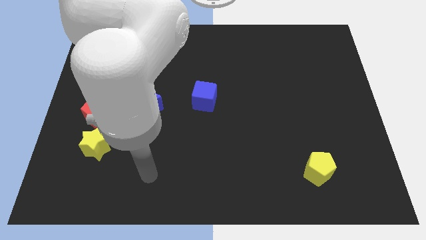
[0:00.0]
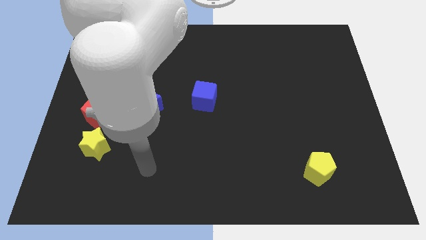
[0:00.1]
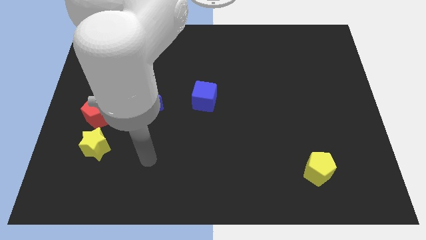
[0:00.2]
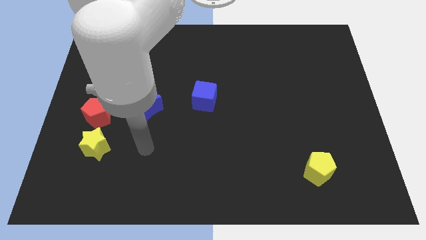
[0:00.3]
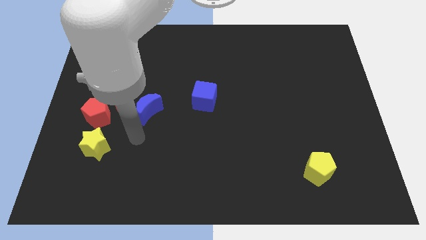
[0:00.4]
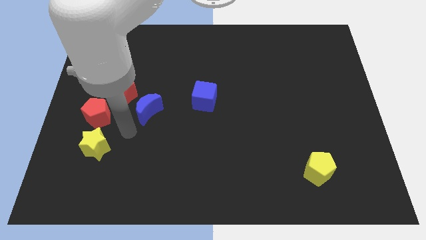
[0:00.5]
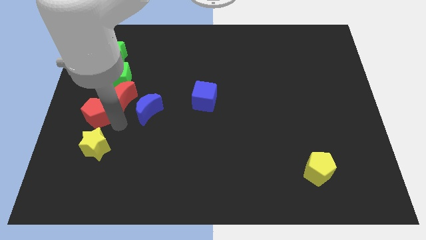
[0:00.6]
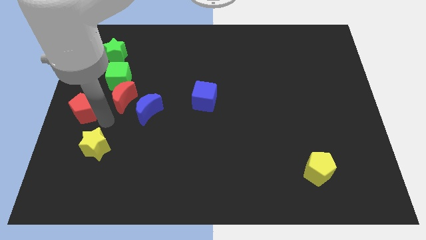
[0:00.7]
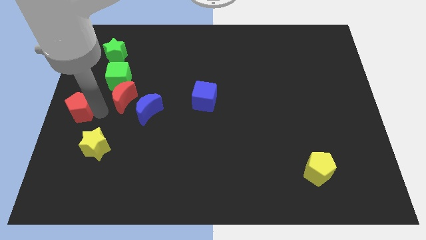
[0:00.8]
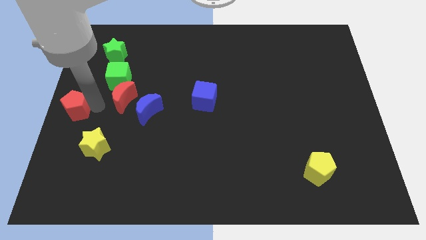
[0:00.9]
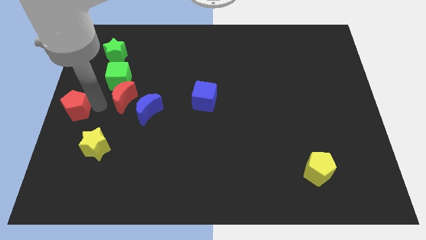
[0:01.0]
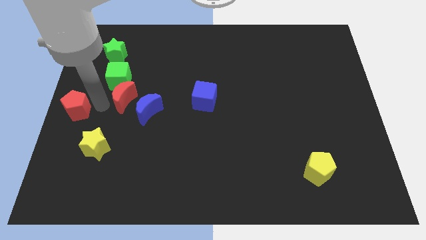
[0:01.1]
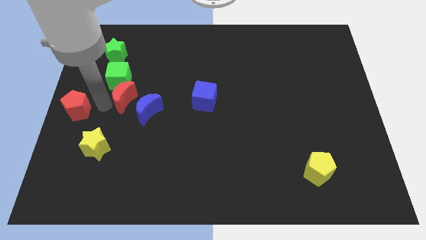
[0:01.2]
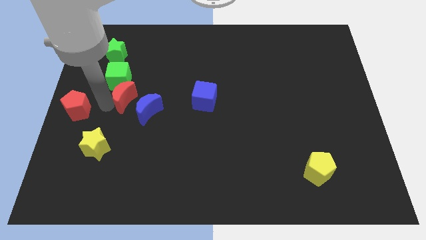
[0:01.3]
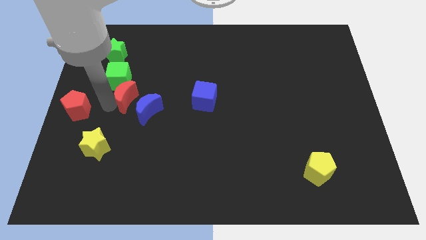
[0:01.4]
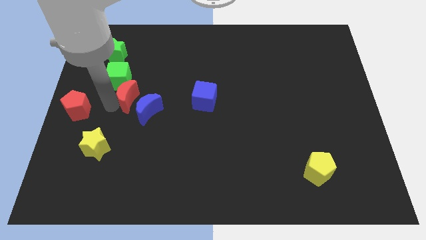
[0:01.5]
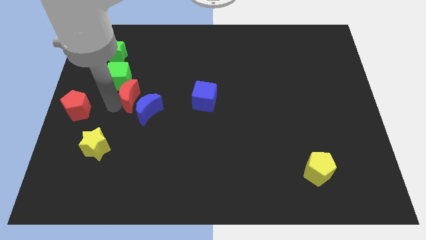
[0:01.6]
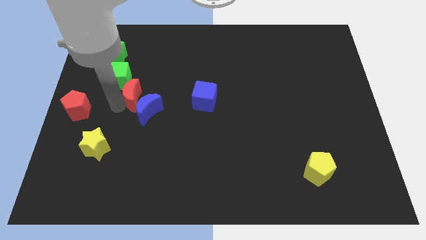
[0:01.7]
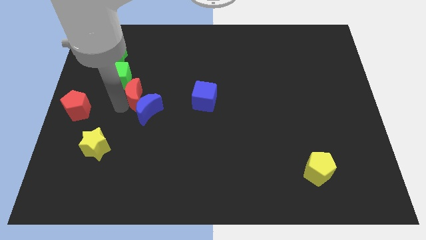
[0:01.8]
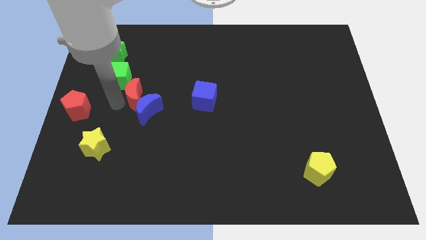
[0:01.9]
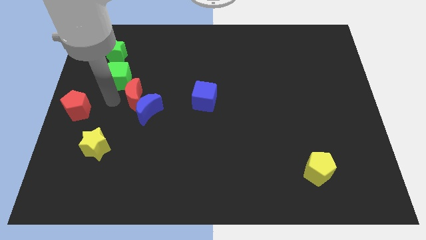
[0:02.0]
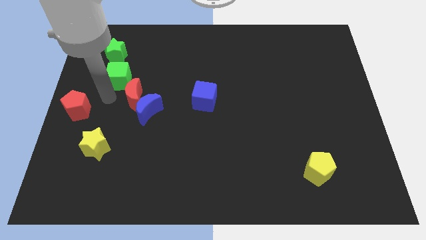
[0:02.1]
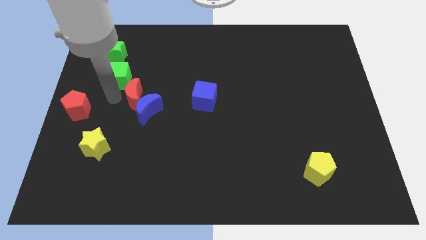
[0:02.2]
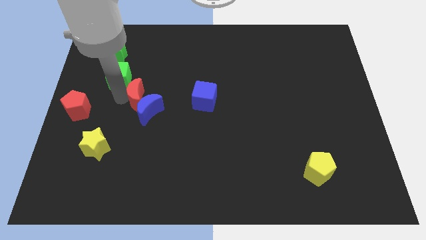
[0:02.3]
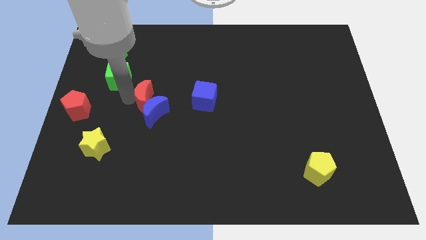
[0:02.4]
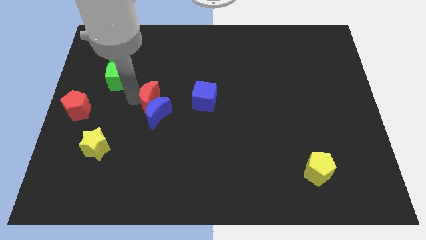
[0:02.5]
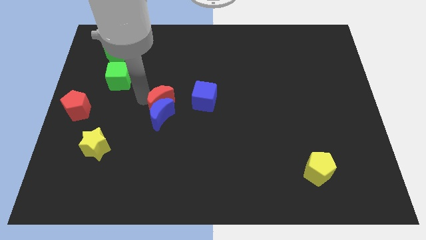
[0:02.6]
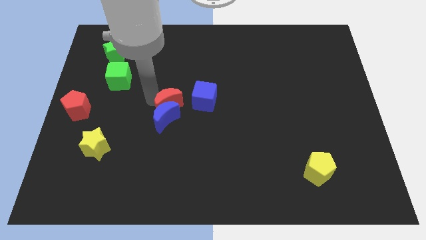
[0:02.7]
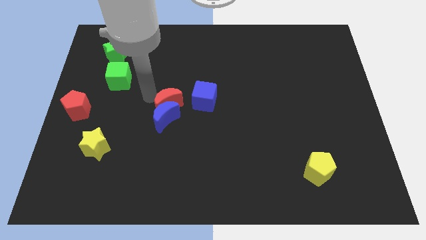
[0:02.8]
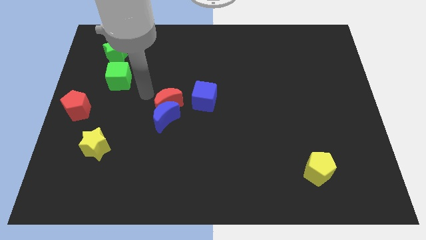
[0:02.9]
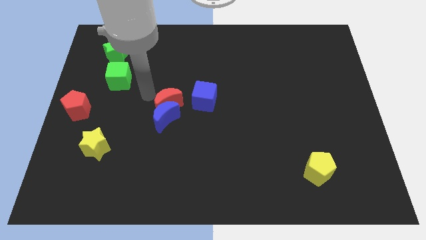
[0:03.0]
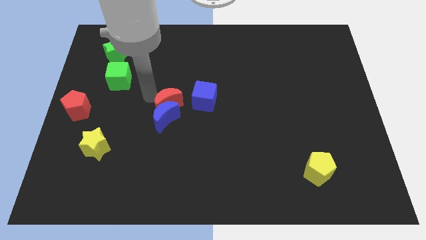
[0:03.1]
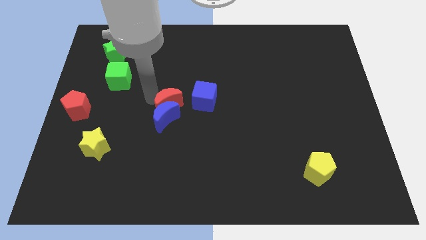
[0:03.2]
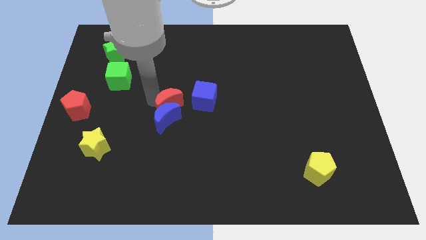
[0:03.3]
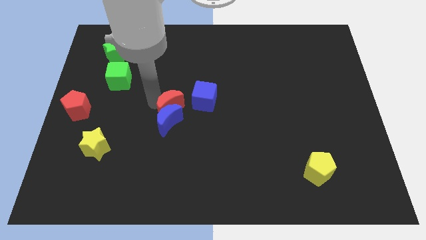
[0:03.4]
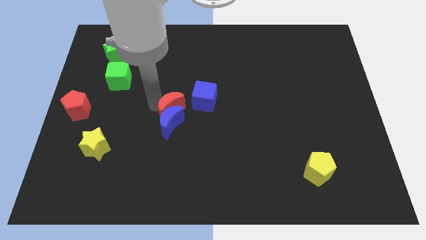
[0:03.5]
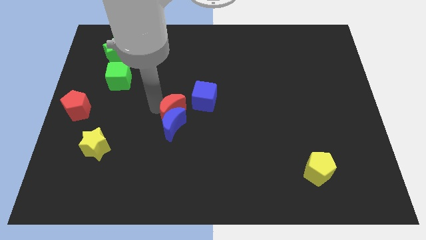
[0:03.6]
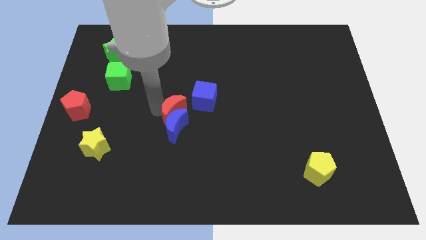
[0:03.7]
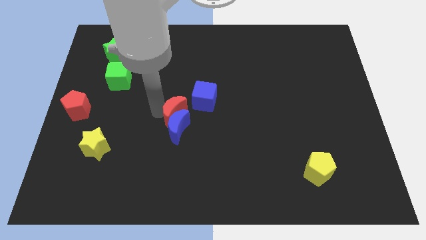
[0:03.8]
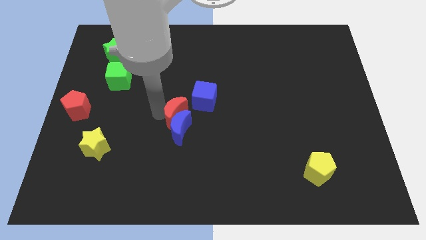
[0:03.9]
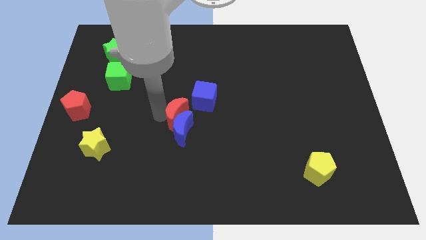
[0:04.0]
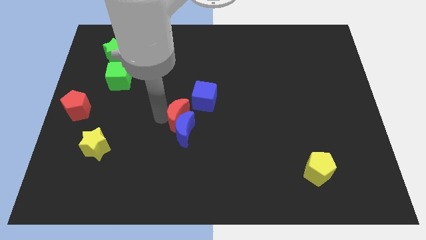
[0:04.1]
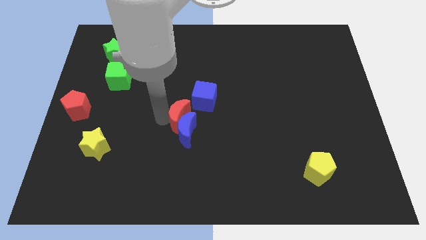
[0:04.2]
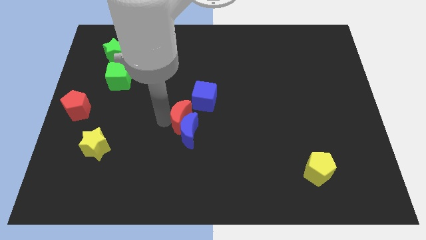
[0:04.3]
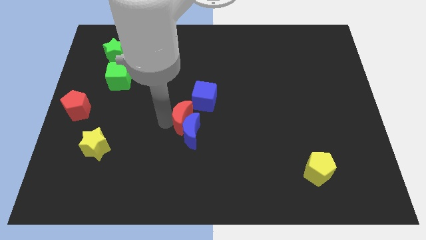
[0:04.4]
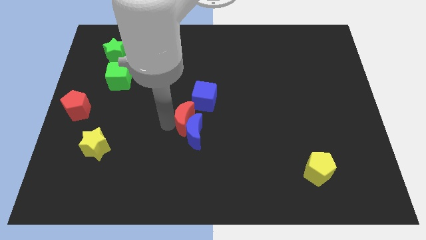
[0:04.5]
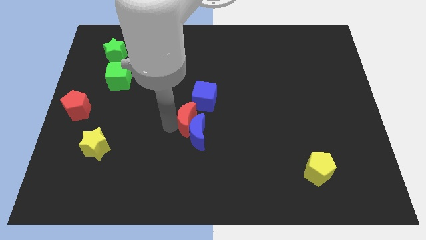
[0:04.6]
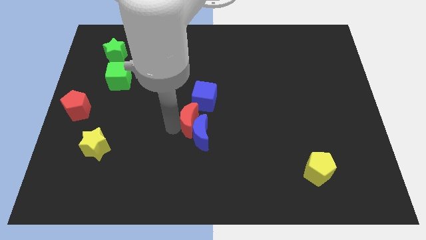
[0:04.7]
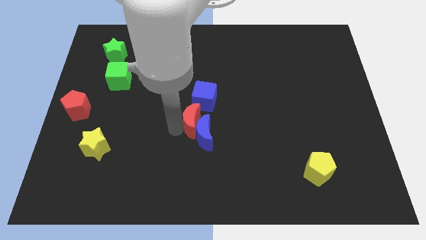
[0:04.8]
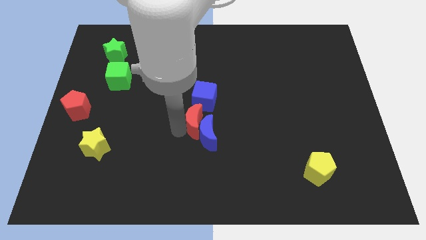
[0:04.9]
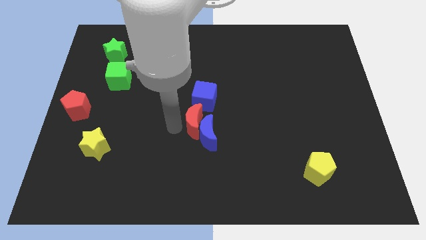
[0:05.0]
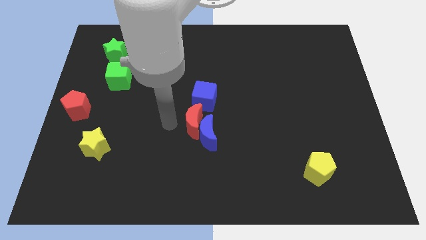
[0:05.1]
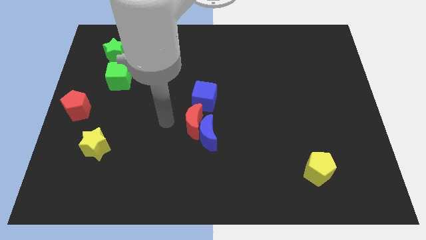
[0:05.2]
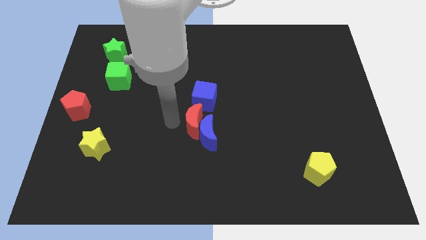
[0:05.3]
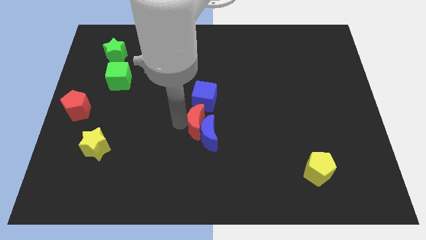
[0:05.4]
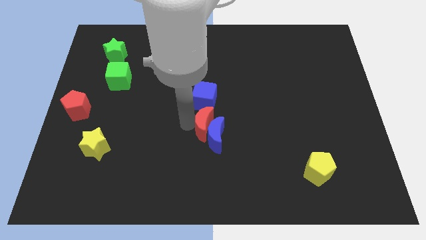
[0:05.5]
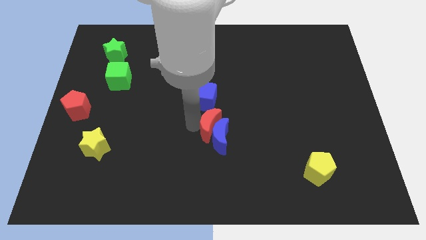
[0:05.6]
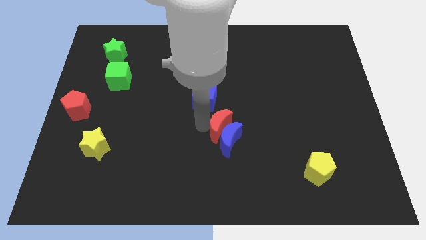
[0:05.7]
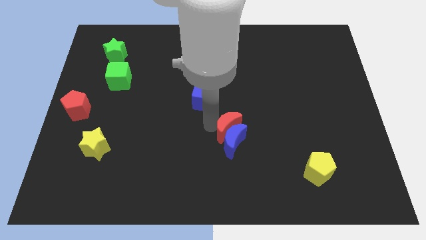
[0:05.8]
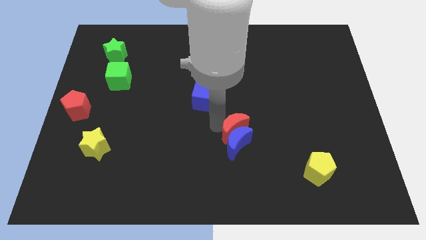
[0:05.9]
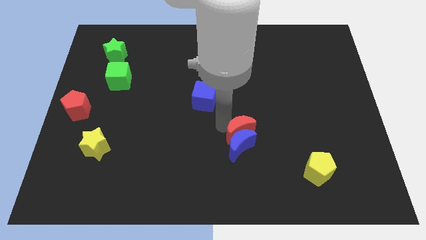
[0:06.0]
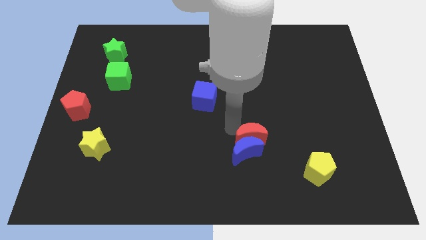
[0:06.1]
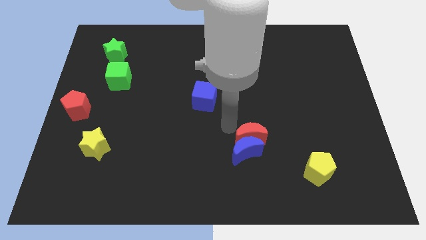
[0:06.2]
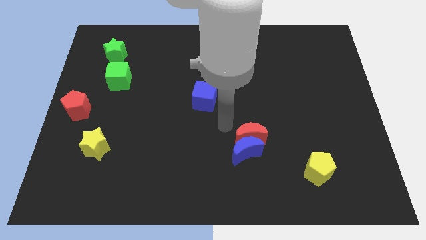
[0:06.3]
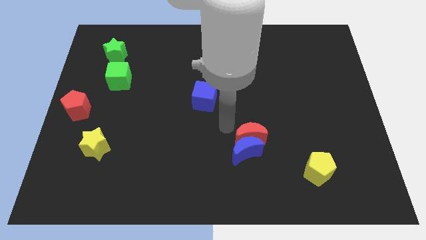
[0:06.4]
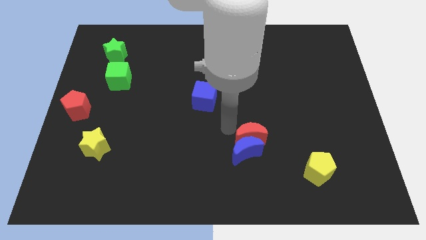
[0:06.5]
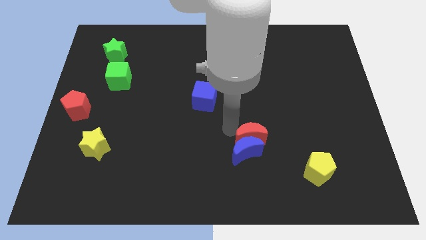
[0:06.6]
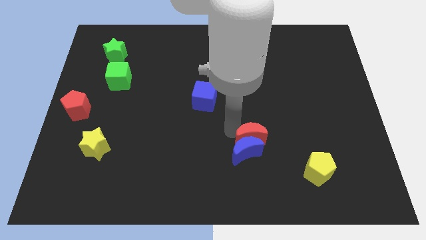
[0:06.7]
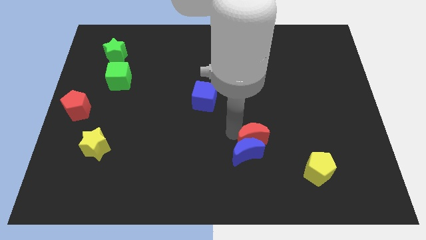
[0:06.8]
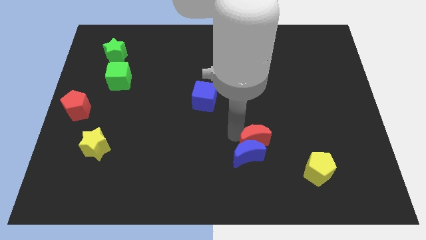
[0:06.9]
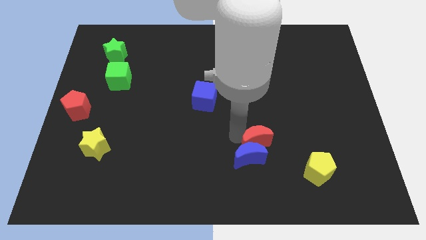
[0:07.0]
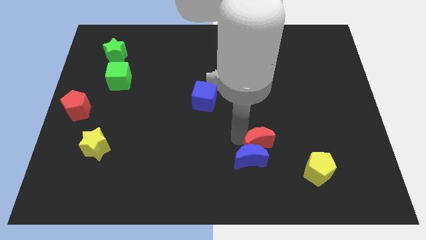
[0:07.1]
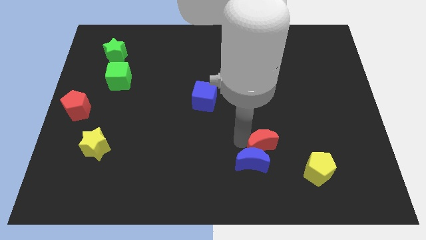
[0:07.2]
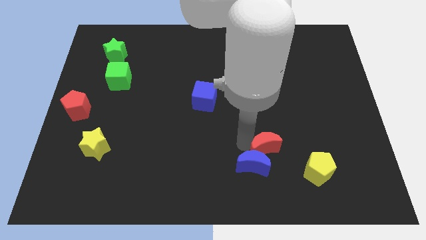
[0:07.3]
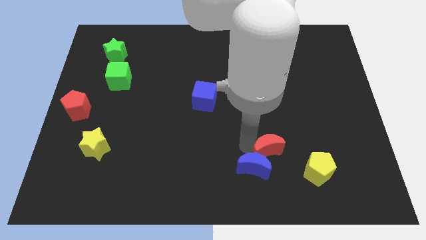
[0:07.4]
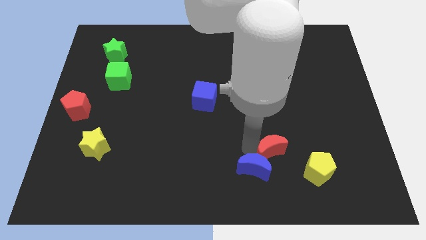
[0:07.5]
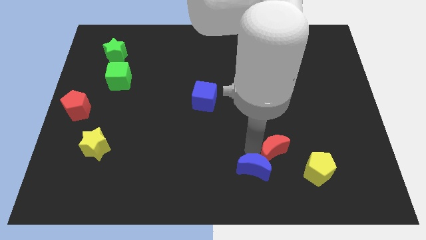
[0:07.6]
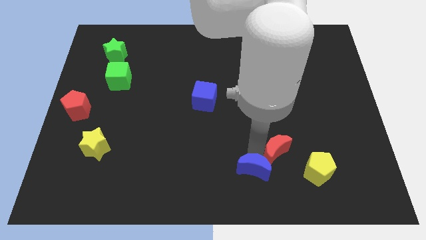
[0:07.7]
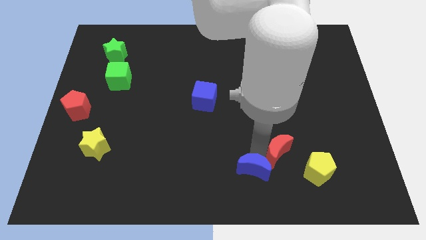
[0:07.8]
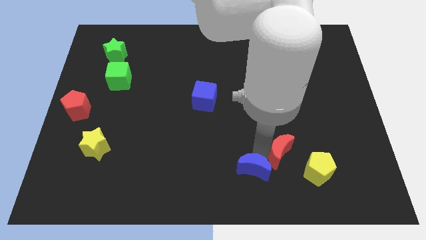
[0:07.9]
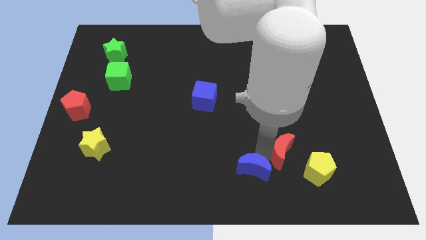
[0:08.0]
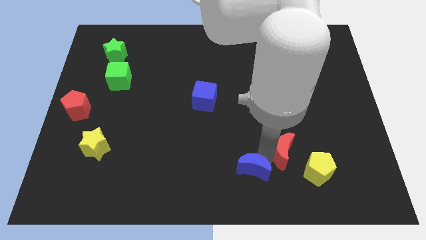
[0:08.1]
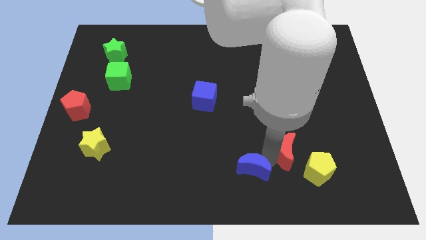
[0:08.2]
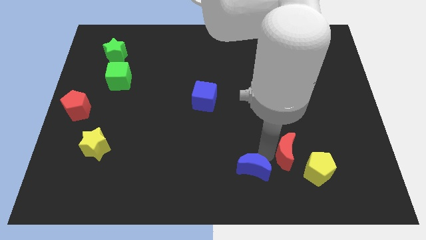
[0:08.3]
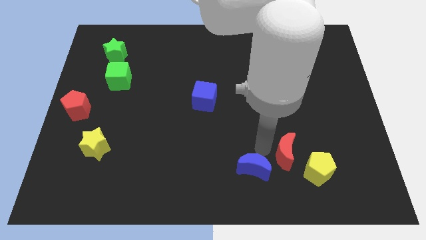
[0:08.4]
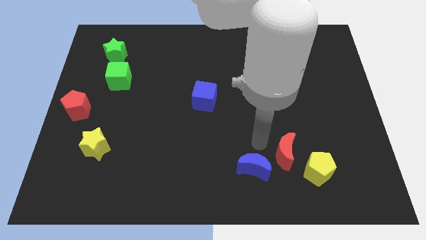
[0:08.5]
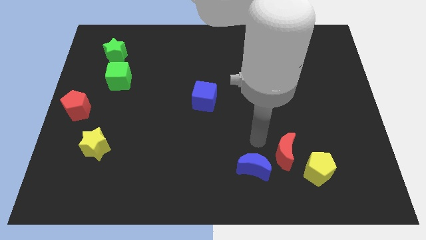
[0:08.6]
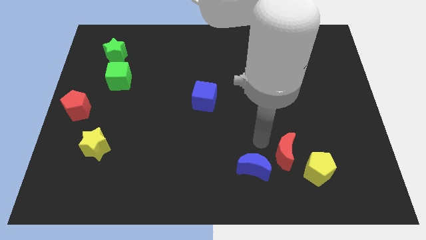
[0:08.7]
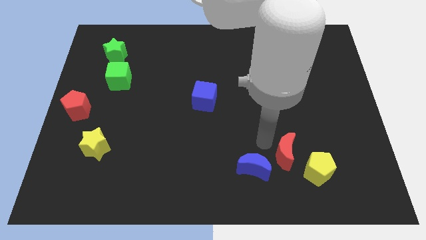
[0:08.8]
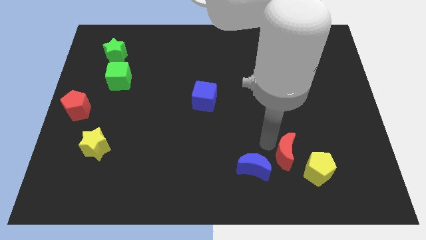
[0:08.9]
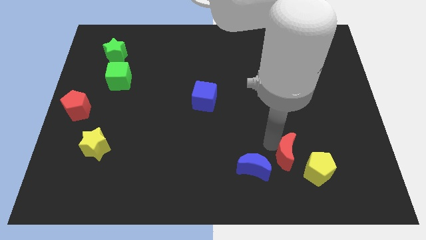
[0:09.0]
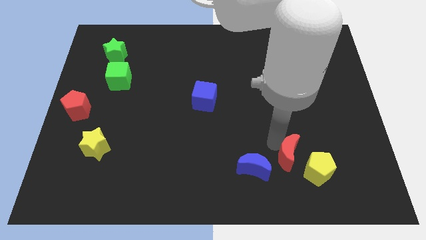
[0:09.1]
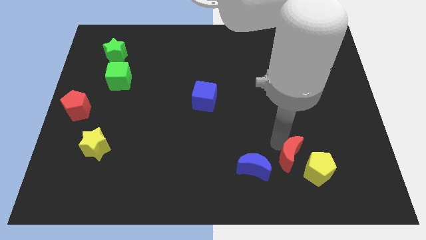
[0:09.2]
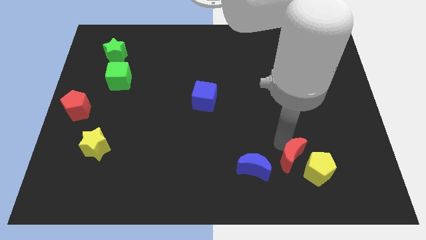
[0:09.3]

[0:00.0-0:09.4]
move the red moon to the yellow pentagon
